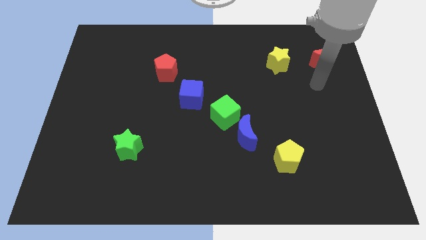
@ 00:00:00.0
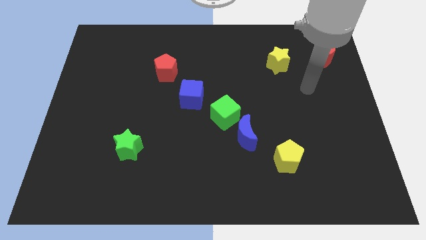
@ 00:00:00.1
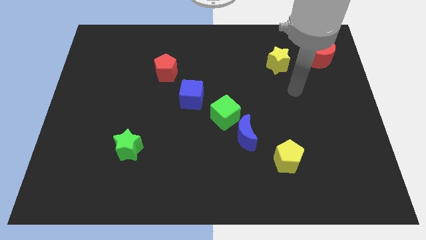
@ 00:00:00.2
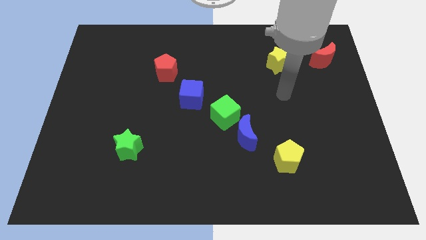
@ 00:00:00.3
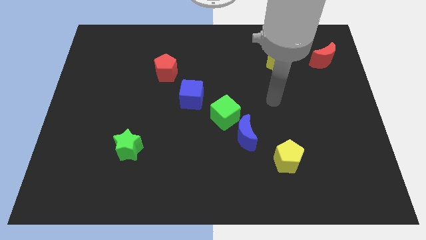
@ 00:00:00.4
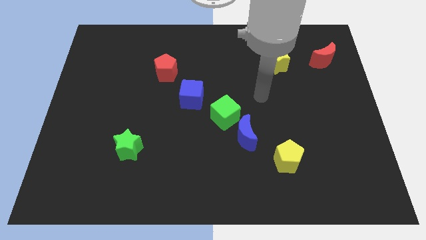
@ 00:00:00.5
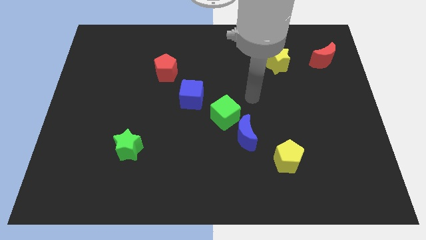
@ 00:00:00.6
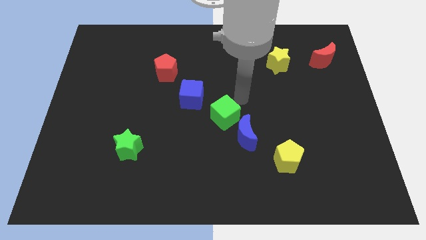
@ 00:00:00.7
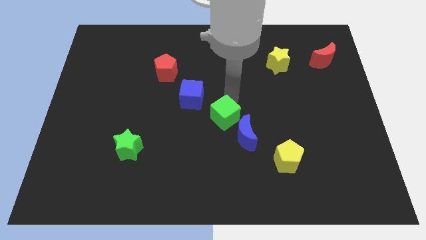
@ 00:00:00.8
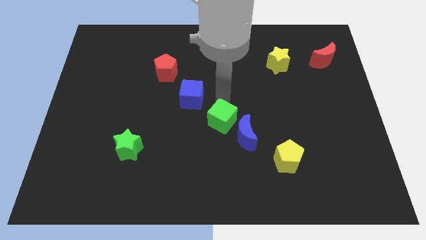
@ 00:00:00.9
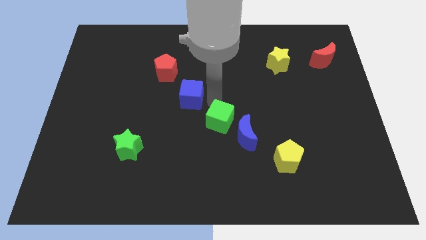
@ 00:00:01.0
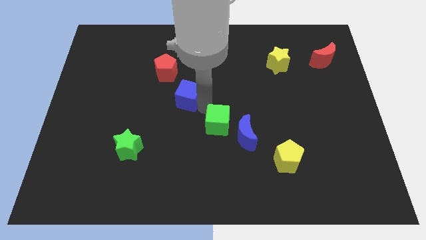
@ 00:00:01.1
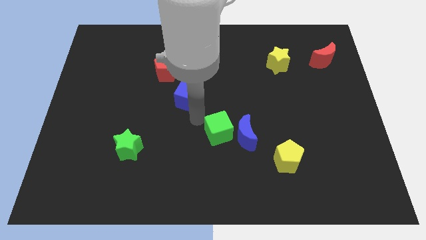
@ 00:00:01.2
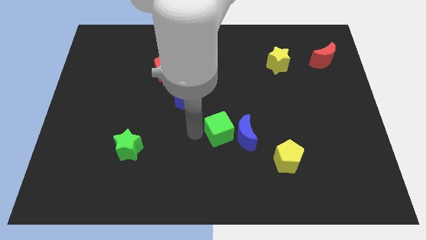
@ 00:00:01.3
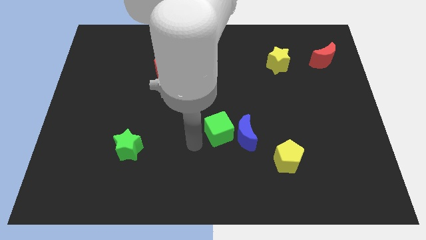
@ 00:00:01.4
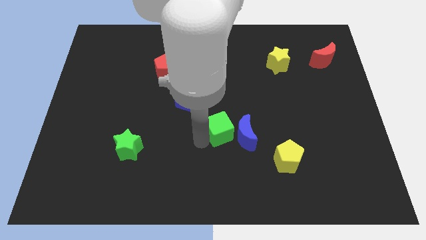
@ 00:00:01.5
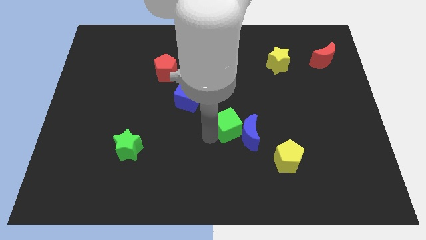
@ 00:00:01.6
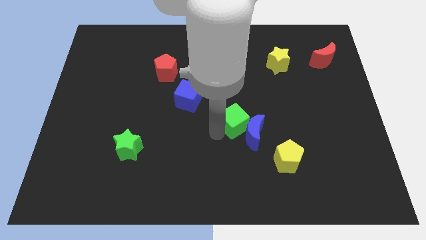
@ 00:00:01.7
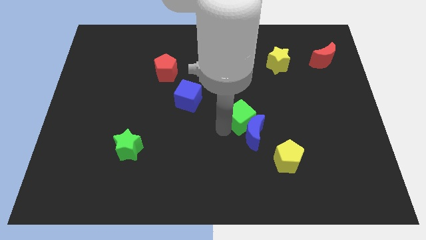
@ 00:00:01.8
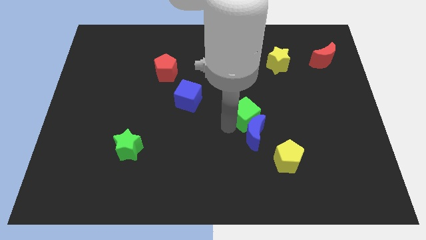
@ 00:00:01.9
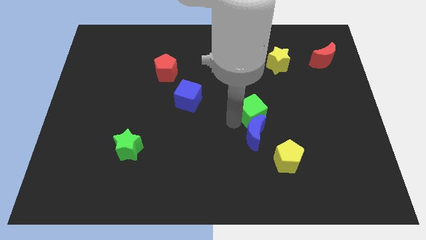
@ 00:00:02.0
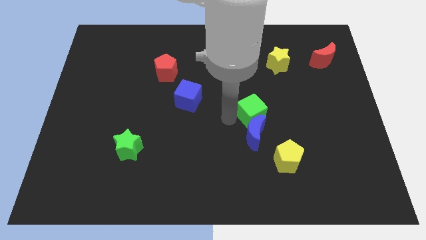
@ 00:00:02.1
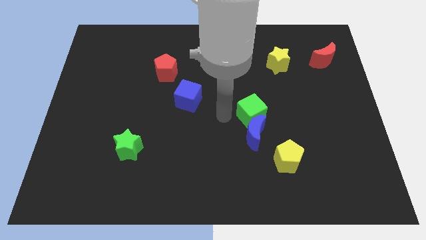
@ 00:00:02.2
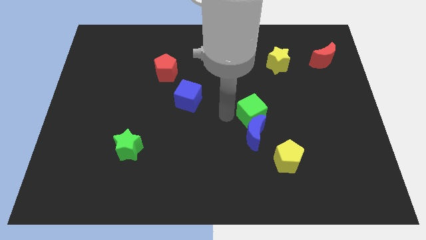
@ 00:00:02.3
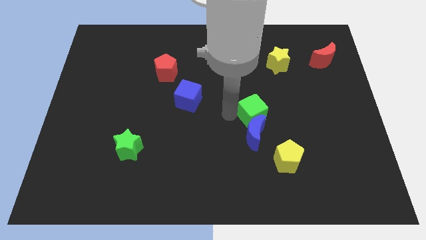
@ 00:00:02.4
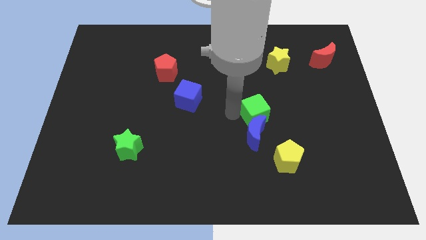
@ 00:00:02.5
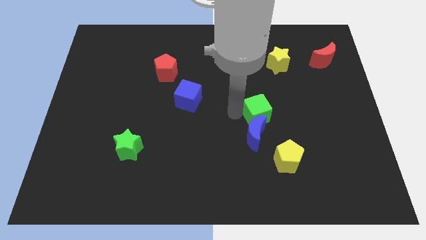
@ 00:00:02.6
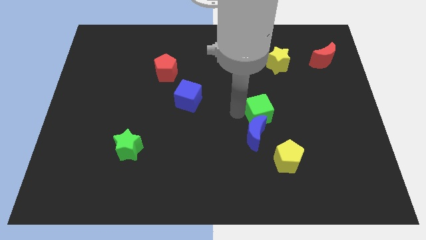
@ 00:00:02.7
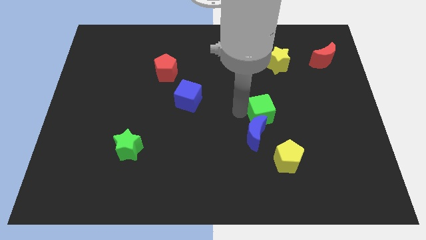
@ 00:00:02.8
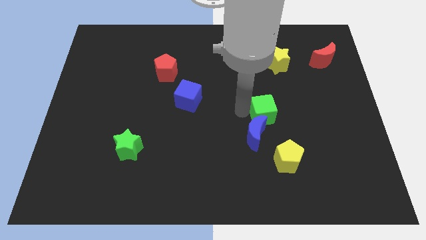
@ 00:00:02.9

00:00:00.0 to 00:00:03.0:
move the green cube away from the blue moon and blue cube

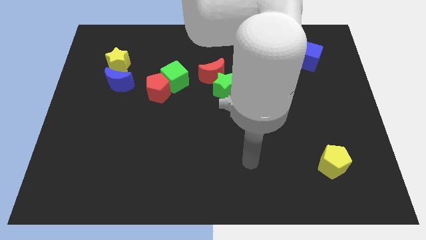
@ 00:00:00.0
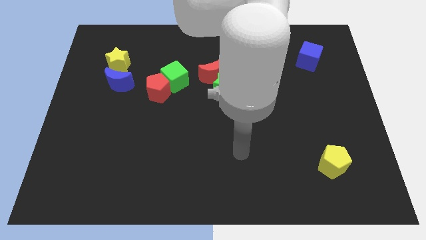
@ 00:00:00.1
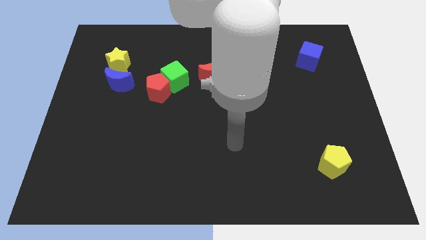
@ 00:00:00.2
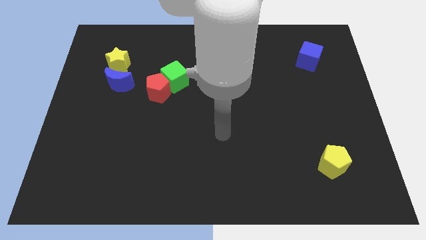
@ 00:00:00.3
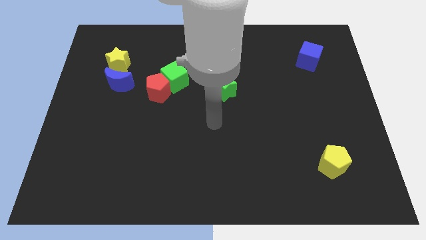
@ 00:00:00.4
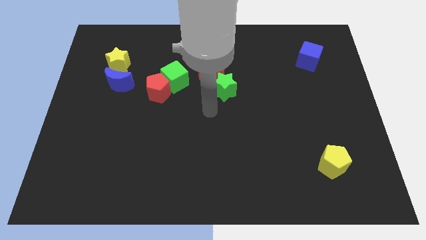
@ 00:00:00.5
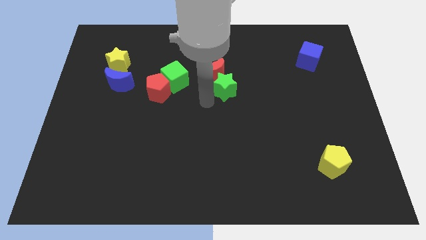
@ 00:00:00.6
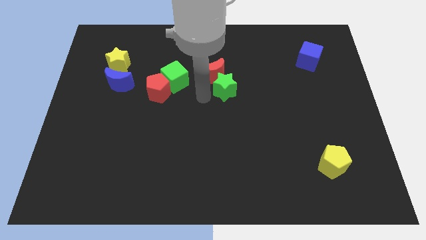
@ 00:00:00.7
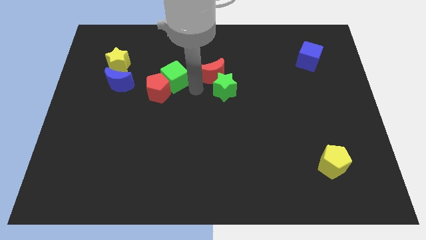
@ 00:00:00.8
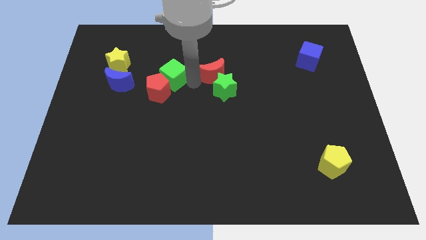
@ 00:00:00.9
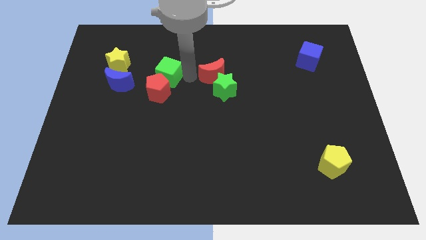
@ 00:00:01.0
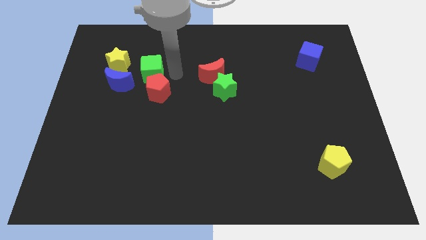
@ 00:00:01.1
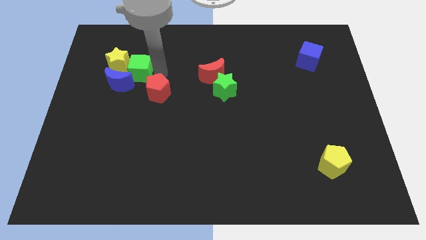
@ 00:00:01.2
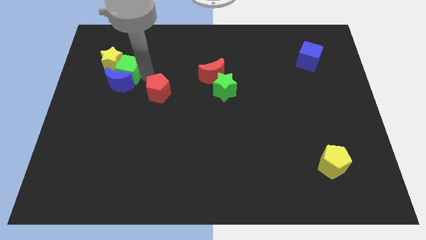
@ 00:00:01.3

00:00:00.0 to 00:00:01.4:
move the red pentagon away from the green cube

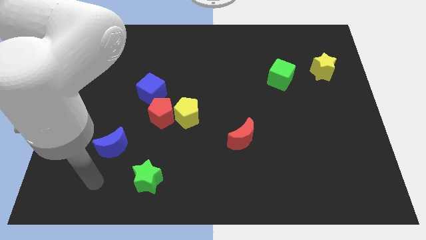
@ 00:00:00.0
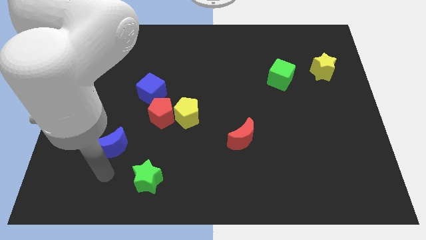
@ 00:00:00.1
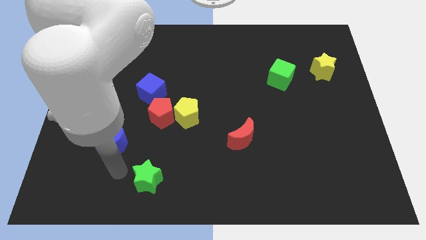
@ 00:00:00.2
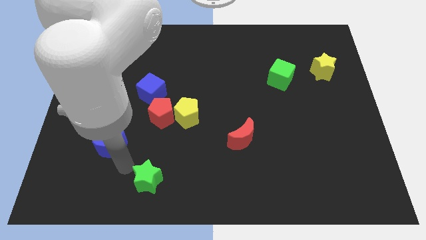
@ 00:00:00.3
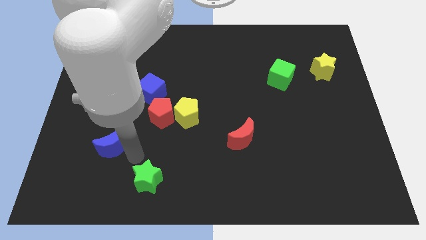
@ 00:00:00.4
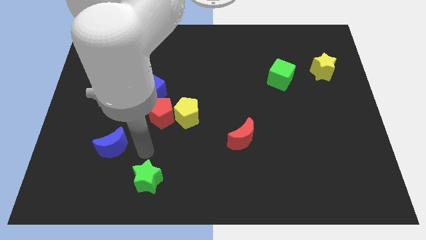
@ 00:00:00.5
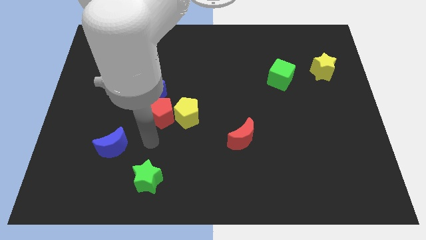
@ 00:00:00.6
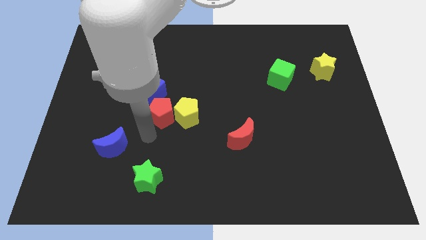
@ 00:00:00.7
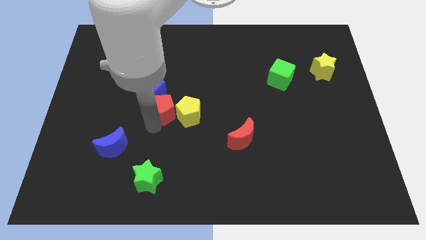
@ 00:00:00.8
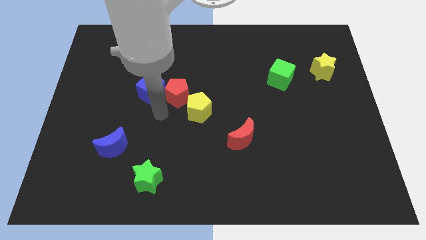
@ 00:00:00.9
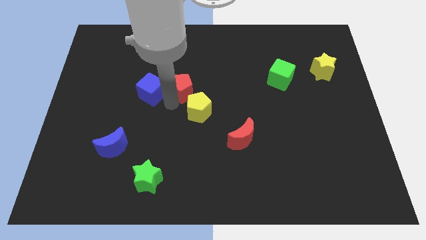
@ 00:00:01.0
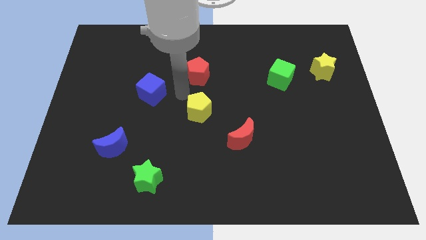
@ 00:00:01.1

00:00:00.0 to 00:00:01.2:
pull the yellow pentagon apart from the red pentagon

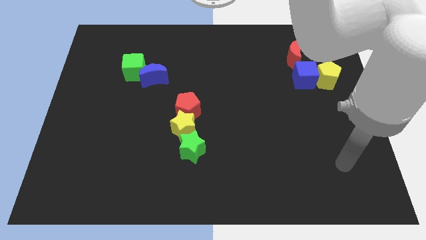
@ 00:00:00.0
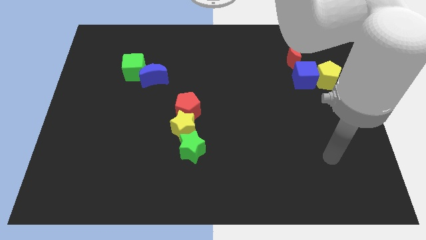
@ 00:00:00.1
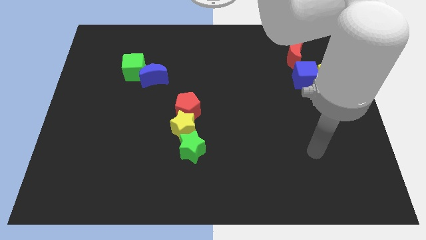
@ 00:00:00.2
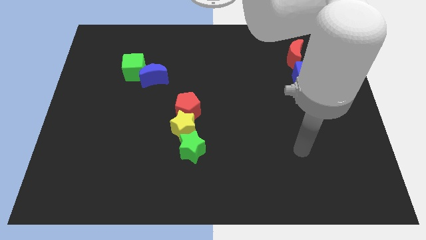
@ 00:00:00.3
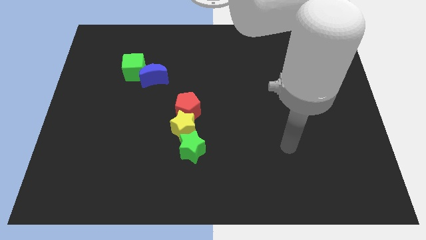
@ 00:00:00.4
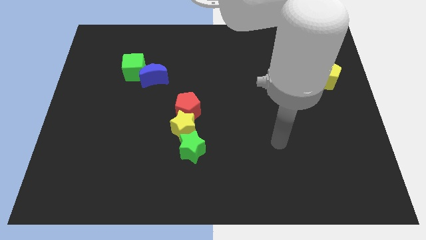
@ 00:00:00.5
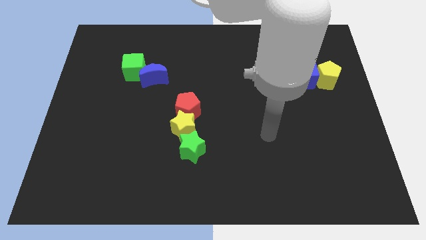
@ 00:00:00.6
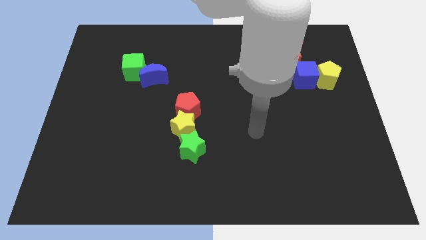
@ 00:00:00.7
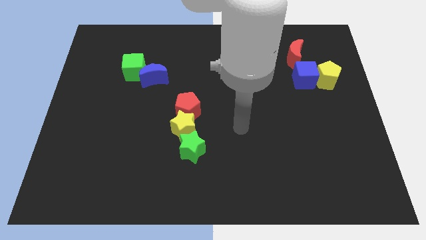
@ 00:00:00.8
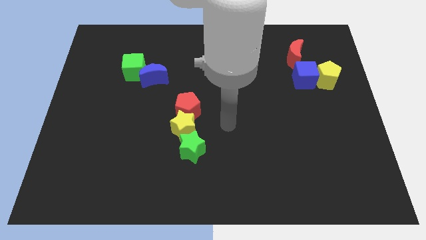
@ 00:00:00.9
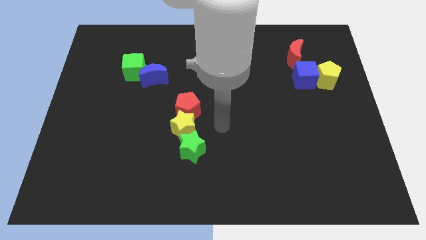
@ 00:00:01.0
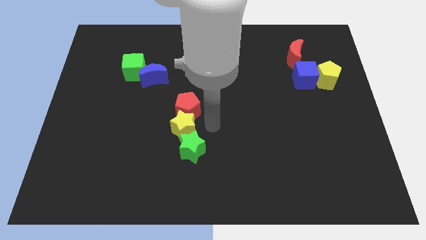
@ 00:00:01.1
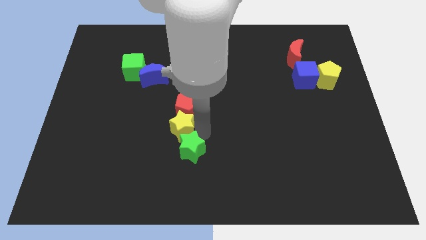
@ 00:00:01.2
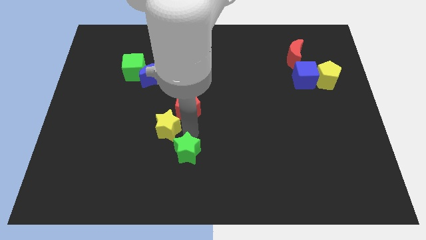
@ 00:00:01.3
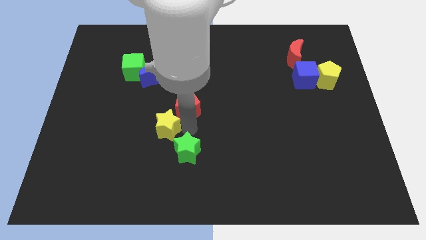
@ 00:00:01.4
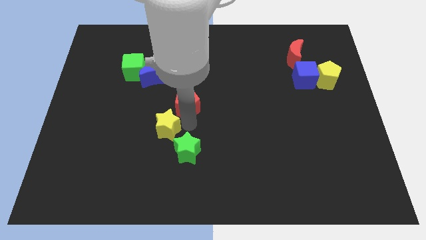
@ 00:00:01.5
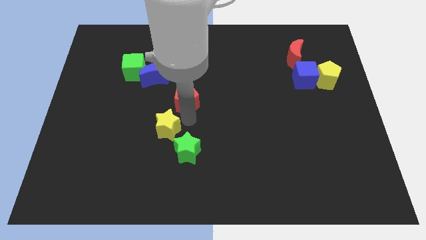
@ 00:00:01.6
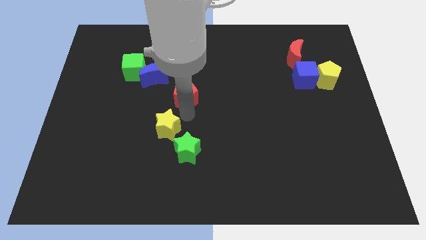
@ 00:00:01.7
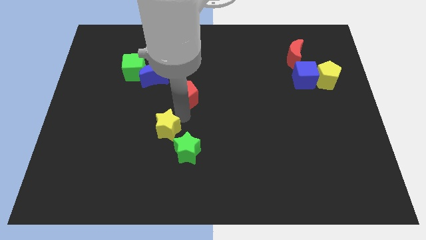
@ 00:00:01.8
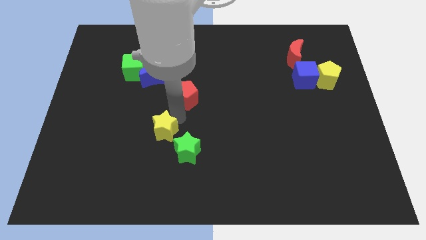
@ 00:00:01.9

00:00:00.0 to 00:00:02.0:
move the red pentagon away from the yellow star

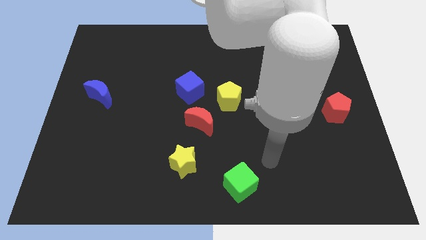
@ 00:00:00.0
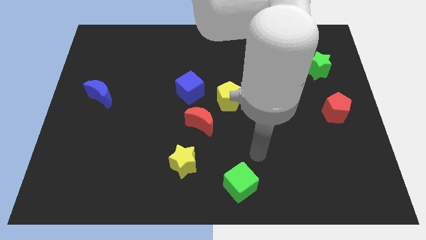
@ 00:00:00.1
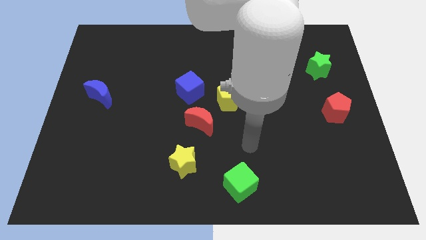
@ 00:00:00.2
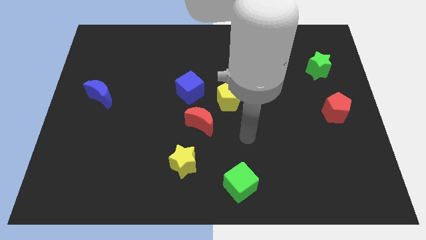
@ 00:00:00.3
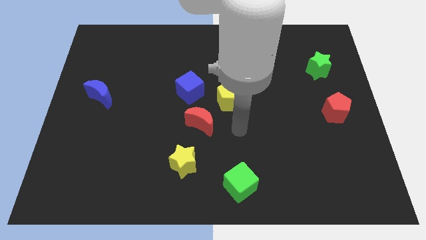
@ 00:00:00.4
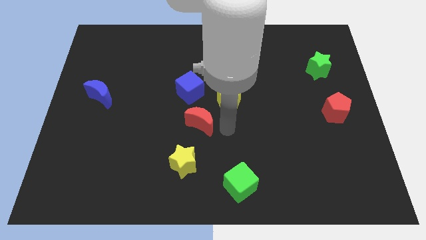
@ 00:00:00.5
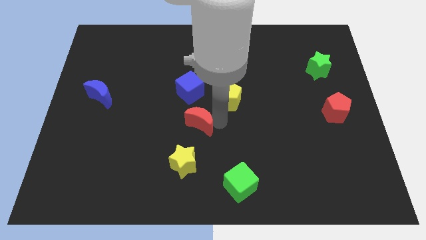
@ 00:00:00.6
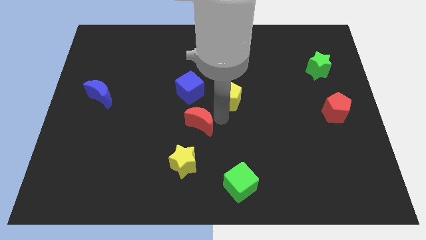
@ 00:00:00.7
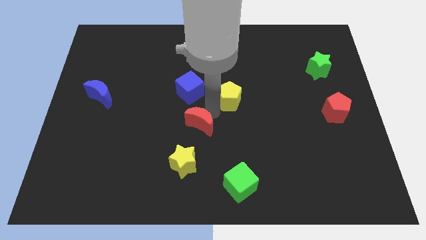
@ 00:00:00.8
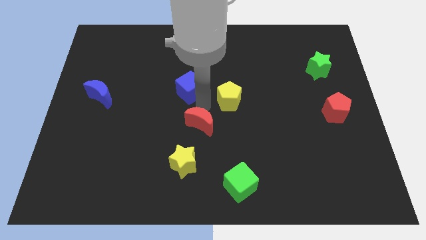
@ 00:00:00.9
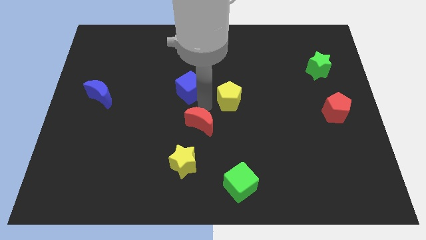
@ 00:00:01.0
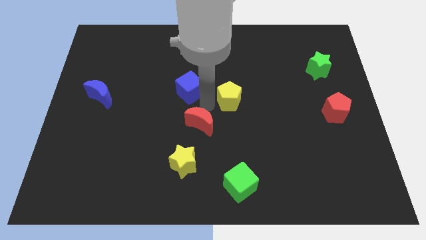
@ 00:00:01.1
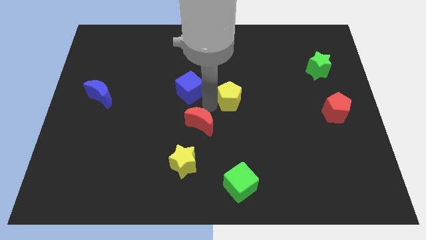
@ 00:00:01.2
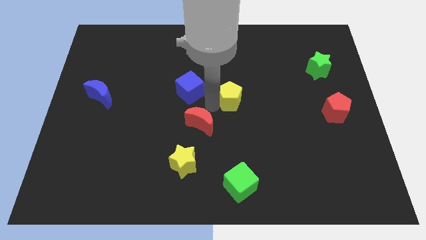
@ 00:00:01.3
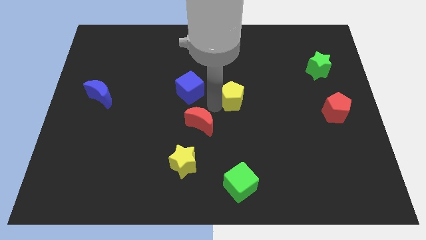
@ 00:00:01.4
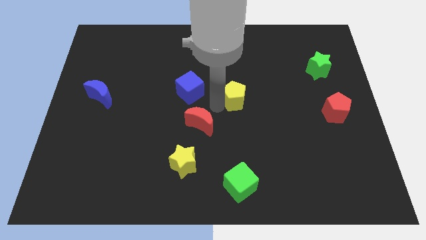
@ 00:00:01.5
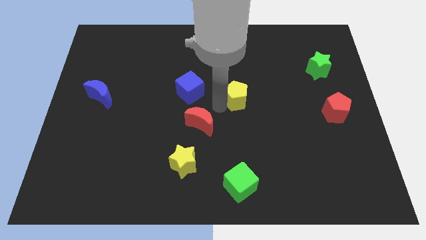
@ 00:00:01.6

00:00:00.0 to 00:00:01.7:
move the yellow pentagon away from the red moon and blue cube
